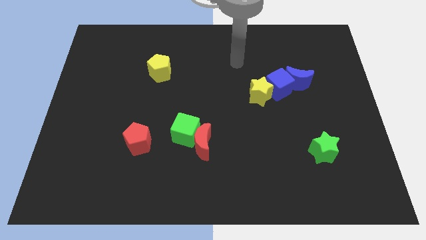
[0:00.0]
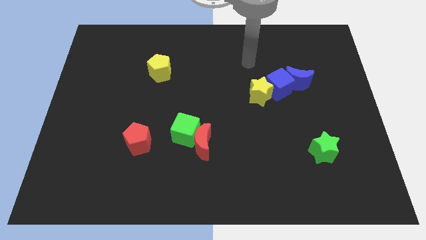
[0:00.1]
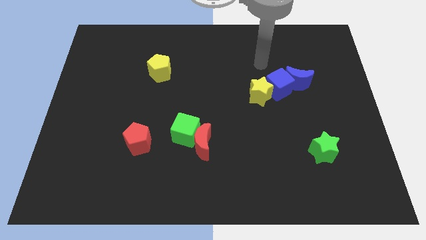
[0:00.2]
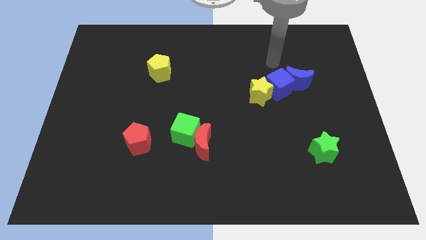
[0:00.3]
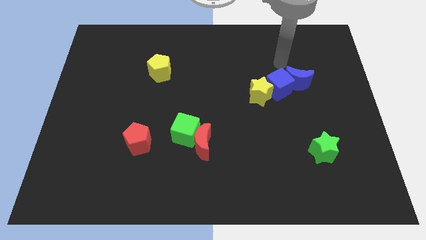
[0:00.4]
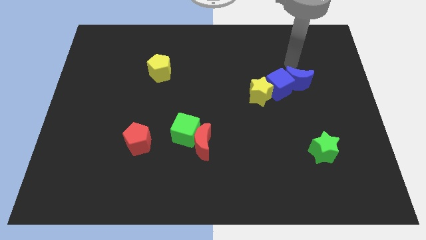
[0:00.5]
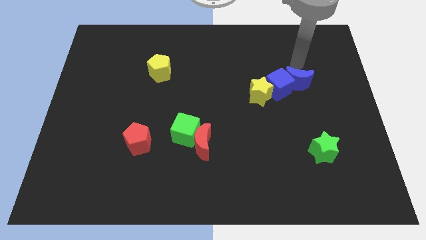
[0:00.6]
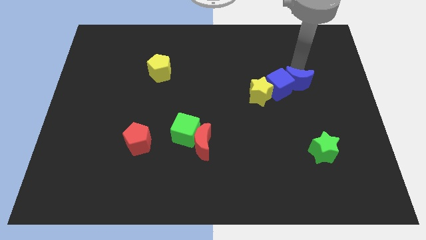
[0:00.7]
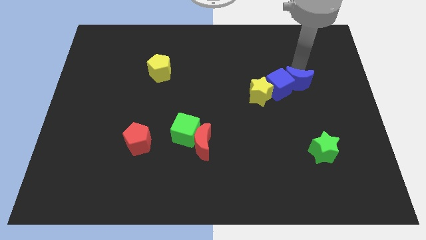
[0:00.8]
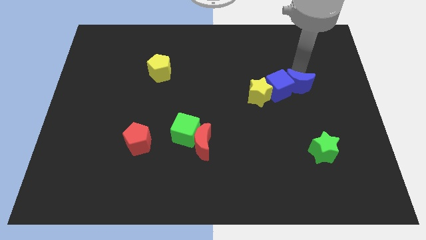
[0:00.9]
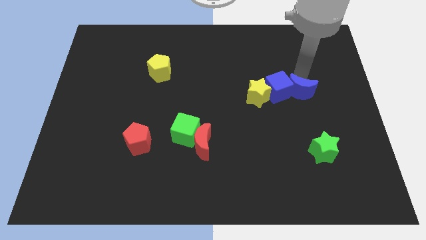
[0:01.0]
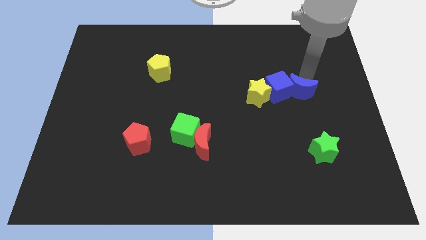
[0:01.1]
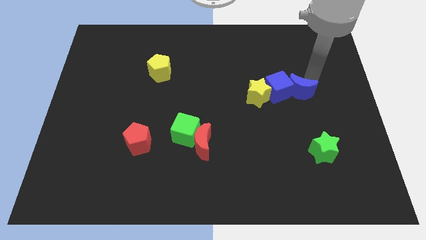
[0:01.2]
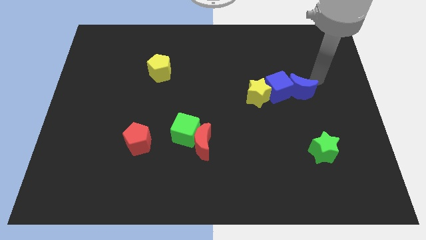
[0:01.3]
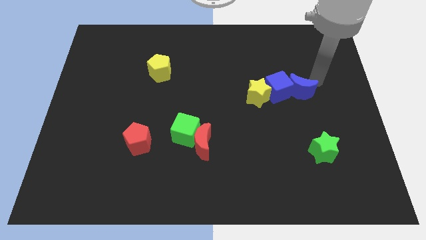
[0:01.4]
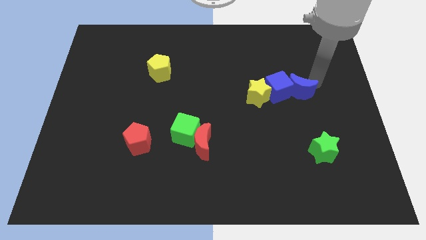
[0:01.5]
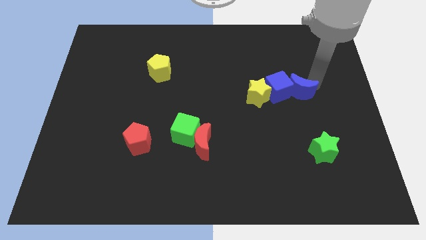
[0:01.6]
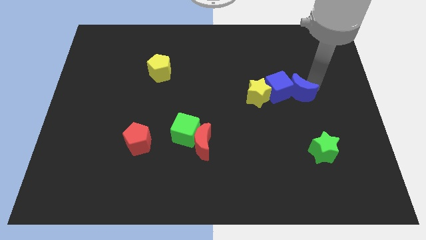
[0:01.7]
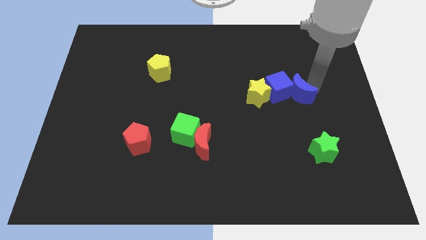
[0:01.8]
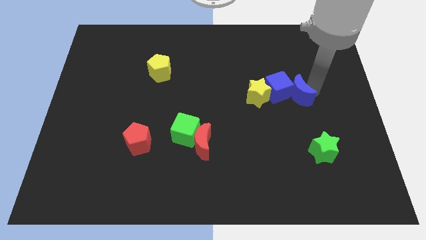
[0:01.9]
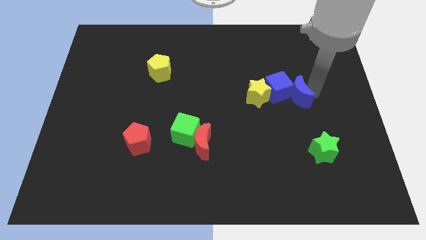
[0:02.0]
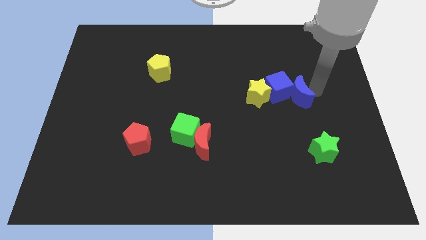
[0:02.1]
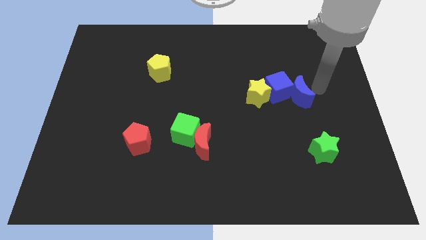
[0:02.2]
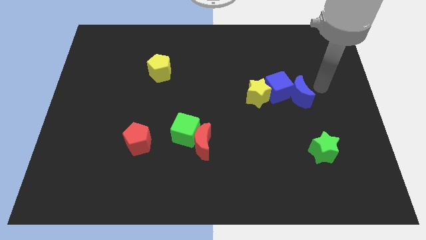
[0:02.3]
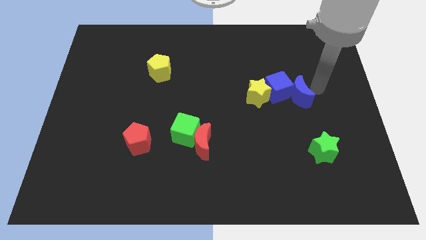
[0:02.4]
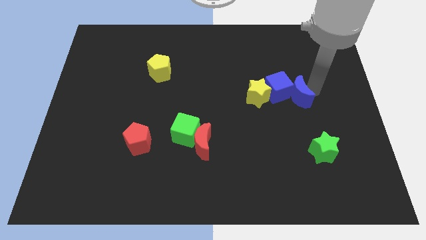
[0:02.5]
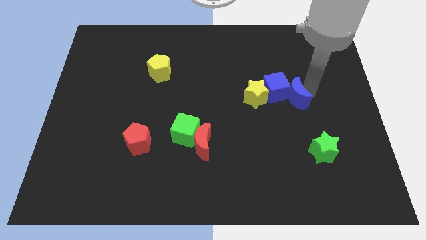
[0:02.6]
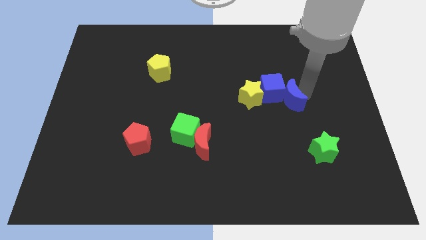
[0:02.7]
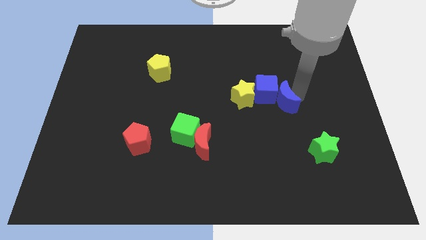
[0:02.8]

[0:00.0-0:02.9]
slightly push the blue moon downwards and to the left diagonally

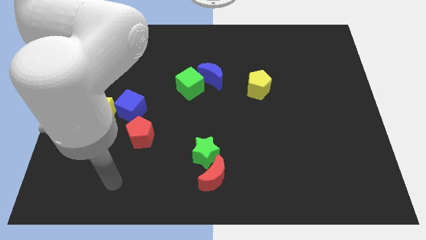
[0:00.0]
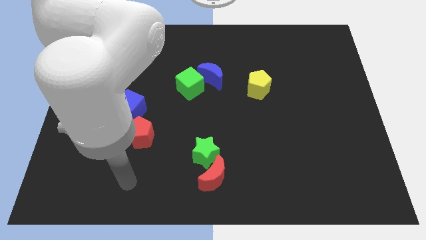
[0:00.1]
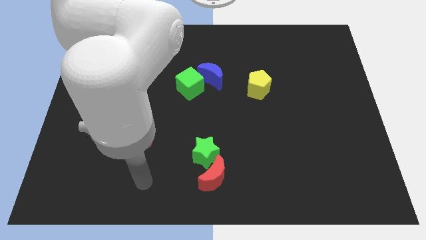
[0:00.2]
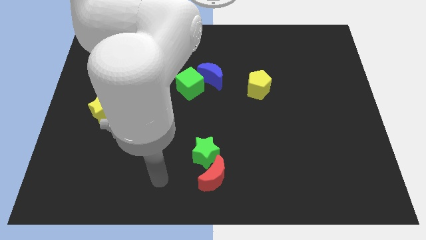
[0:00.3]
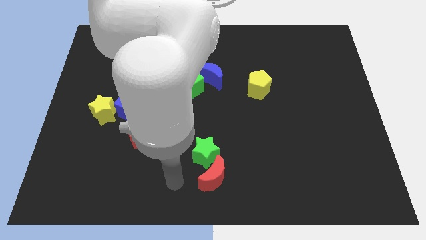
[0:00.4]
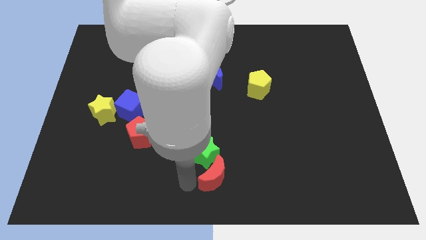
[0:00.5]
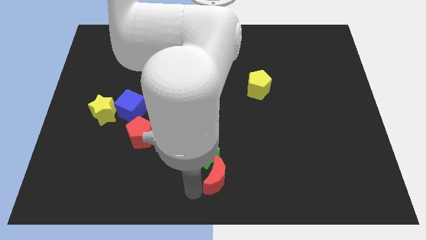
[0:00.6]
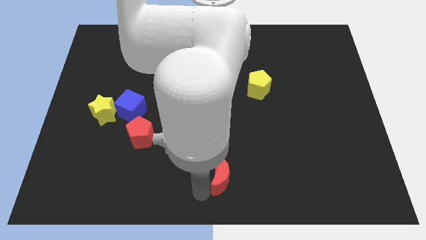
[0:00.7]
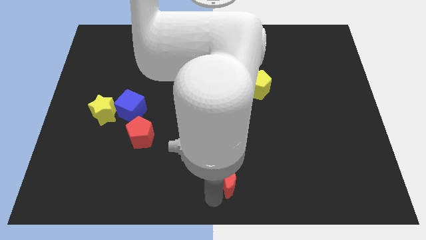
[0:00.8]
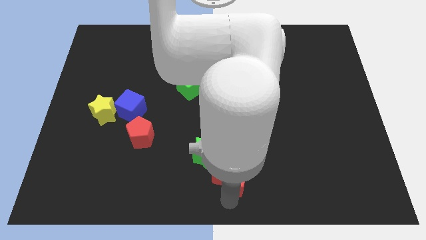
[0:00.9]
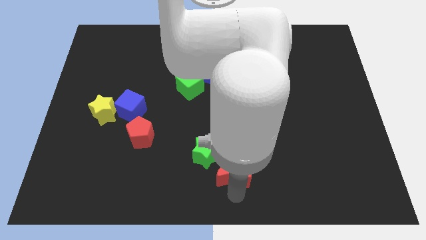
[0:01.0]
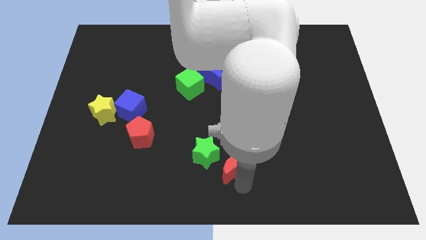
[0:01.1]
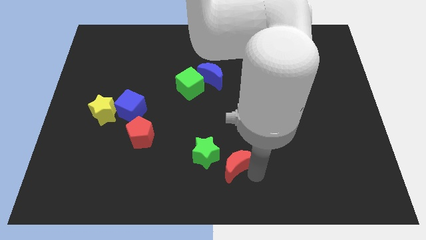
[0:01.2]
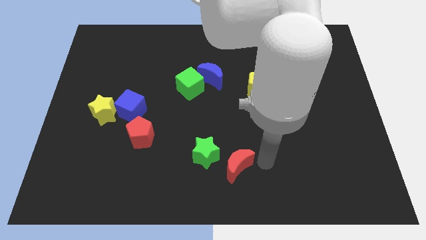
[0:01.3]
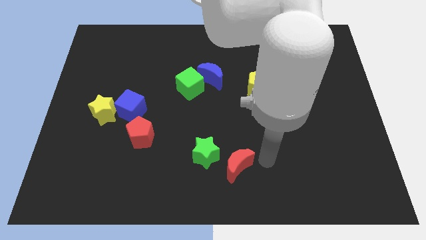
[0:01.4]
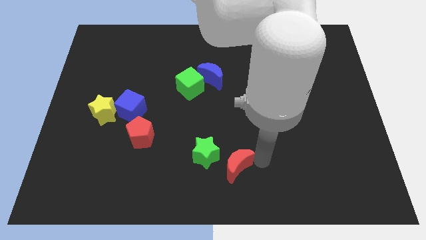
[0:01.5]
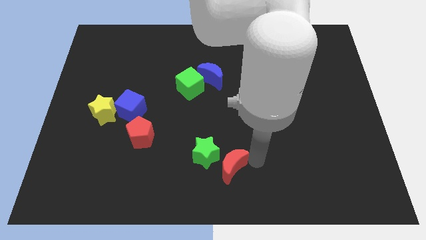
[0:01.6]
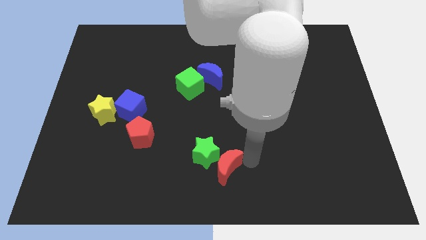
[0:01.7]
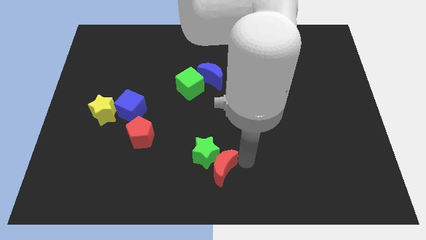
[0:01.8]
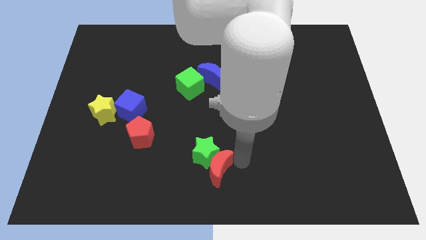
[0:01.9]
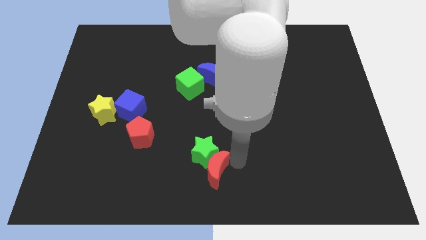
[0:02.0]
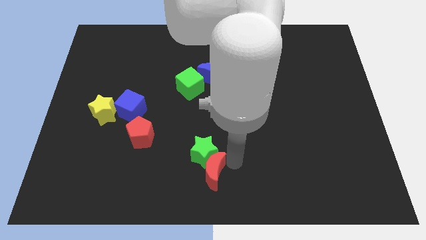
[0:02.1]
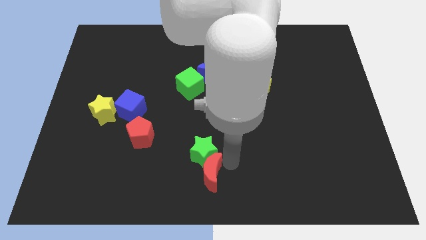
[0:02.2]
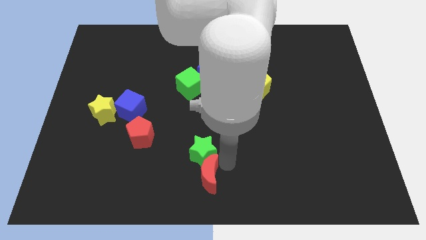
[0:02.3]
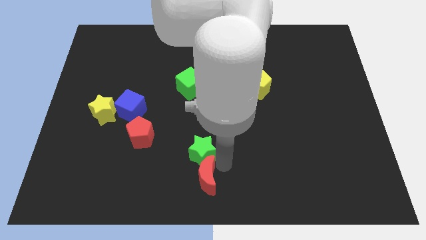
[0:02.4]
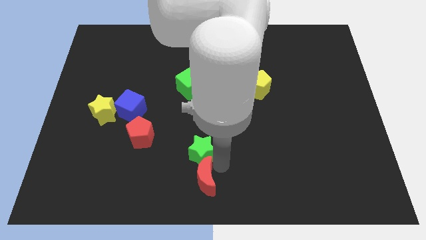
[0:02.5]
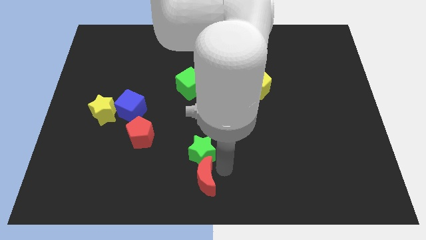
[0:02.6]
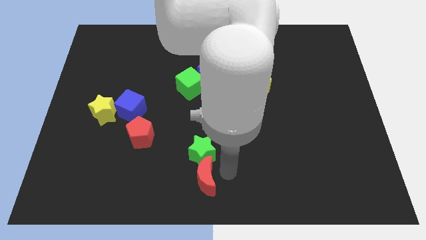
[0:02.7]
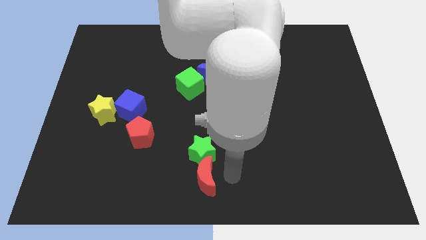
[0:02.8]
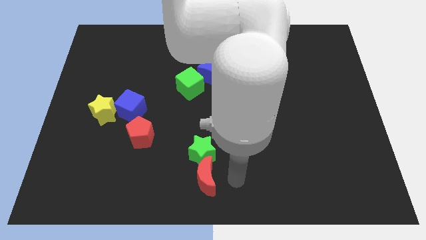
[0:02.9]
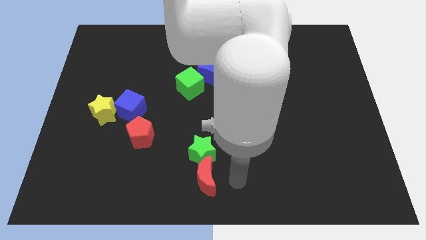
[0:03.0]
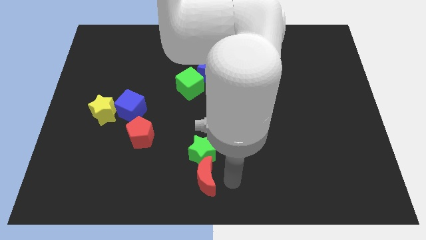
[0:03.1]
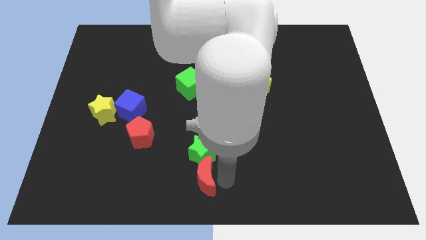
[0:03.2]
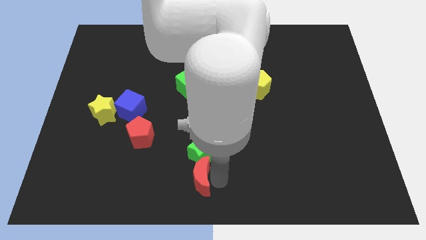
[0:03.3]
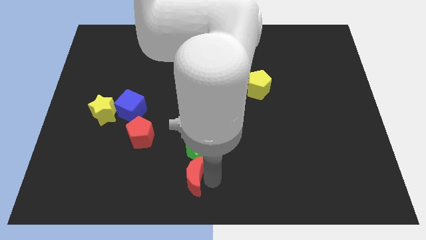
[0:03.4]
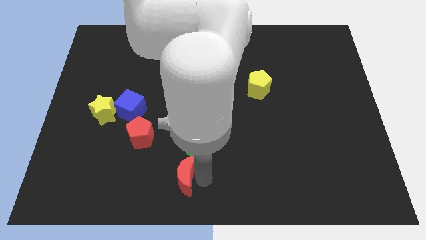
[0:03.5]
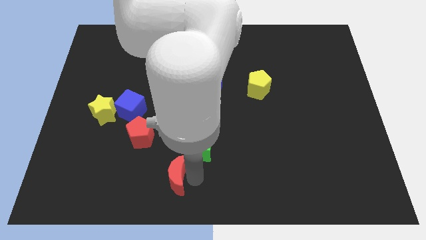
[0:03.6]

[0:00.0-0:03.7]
push the red moon a little to the left

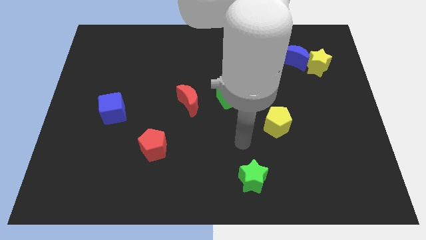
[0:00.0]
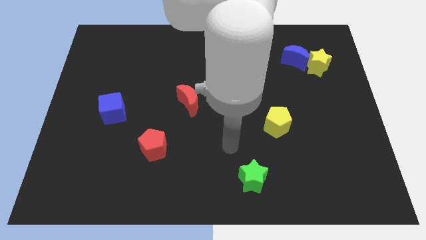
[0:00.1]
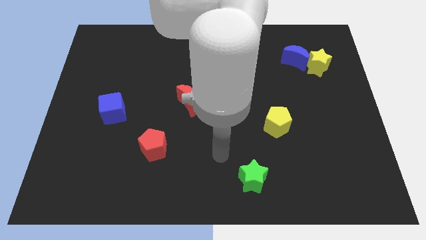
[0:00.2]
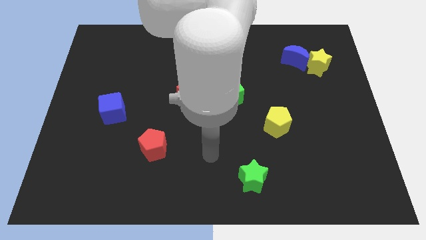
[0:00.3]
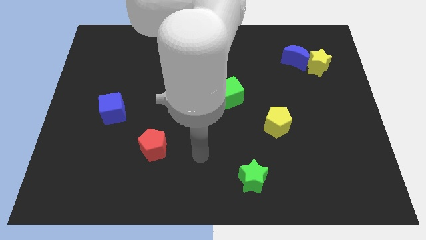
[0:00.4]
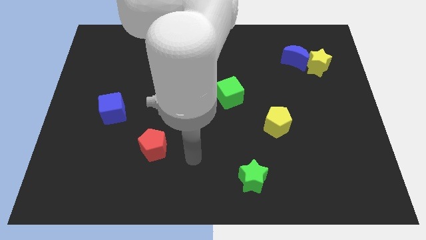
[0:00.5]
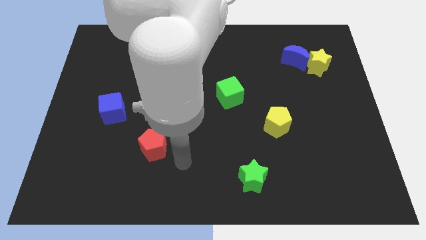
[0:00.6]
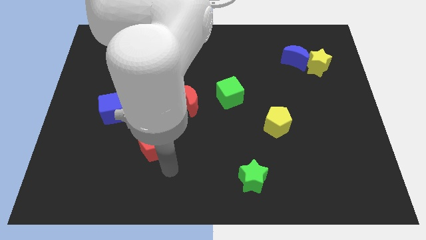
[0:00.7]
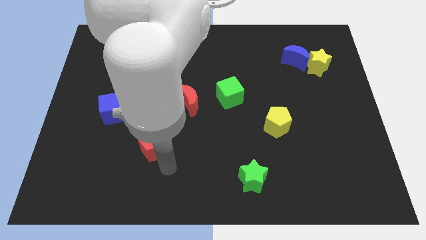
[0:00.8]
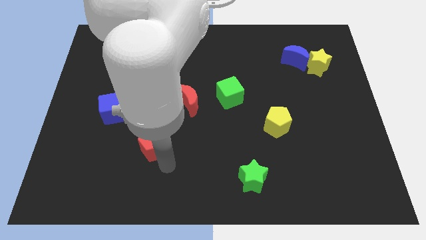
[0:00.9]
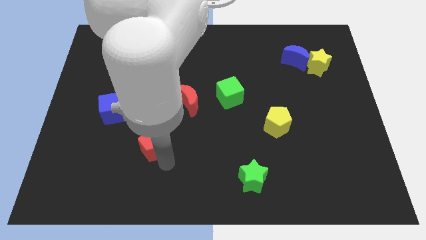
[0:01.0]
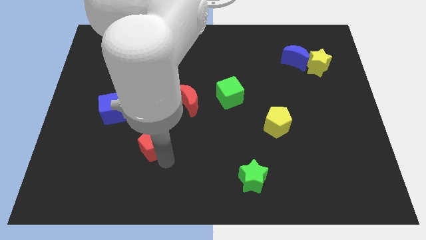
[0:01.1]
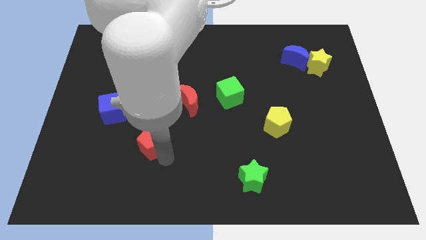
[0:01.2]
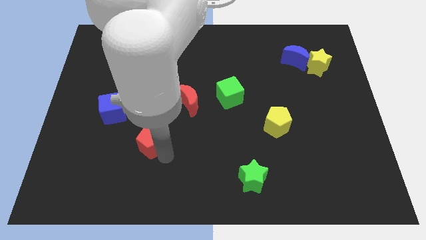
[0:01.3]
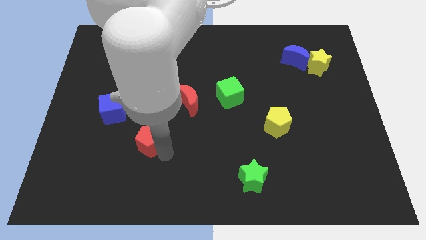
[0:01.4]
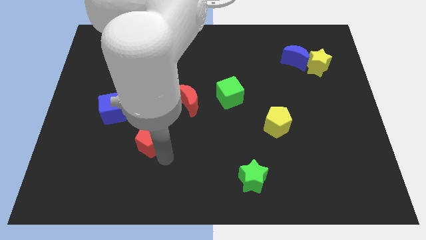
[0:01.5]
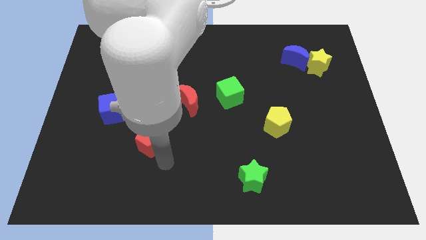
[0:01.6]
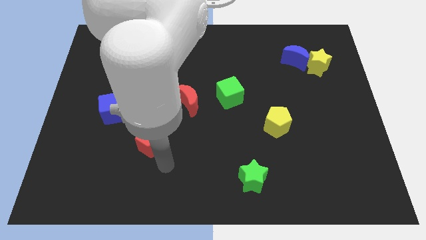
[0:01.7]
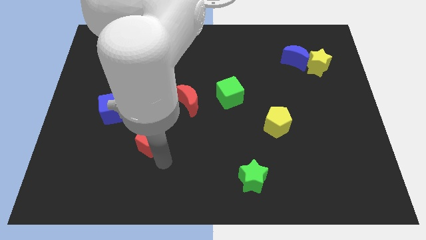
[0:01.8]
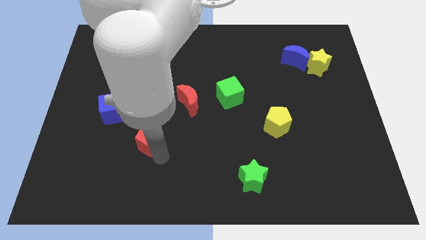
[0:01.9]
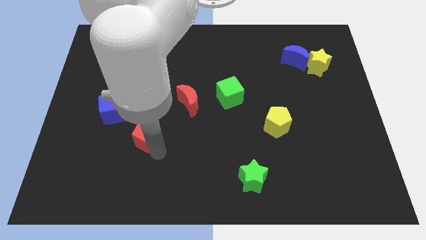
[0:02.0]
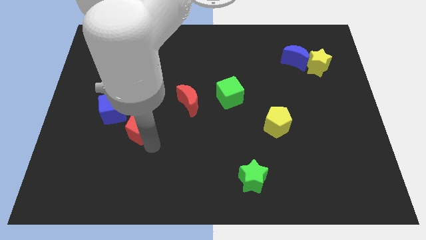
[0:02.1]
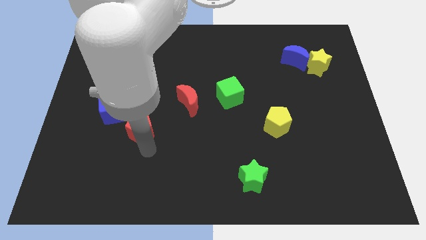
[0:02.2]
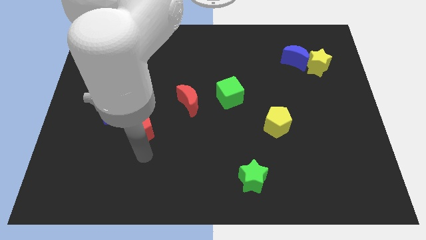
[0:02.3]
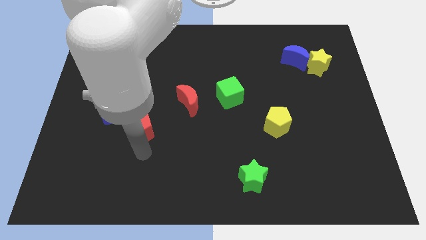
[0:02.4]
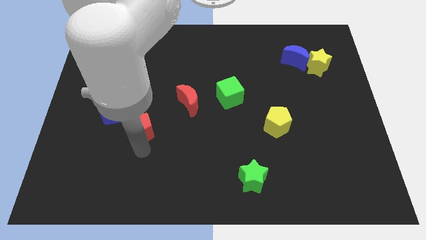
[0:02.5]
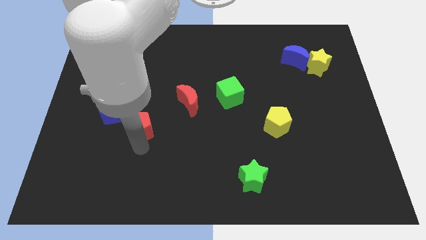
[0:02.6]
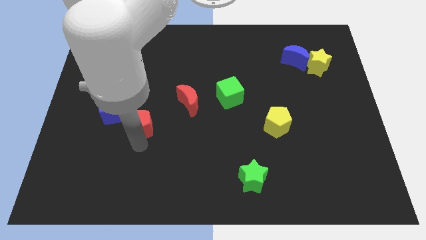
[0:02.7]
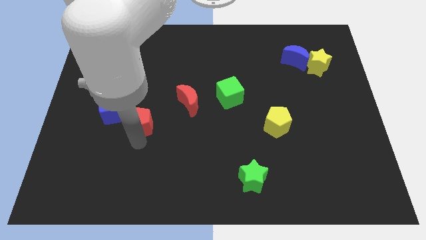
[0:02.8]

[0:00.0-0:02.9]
slightly move the red pentagon upwards and then left
